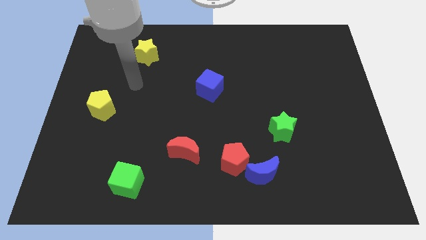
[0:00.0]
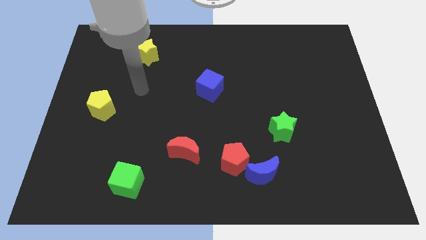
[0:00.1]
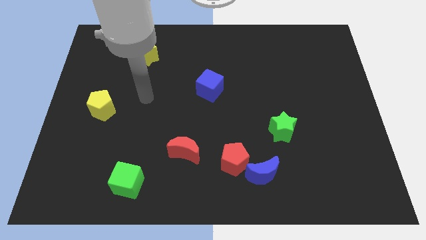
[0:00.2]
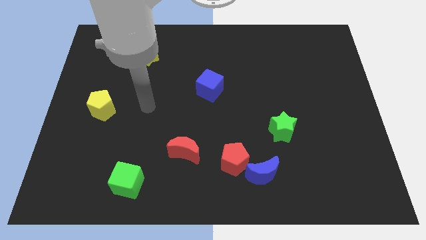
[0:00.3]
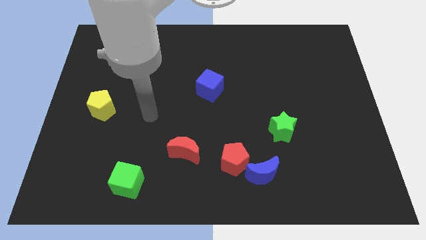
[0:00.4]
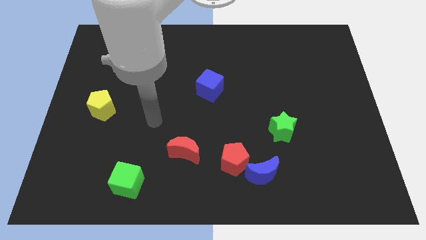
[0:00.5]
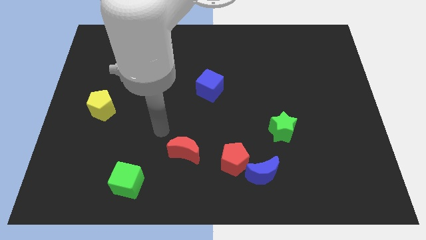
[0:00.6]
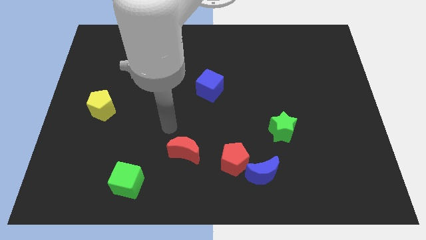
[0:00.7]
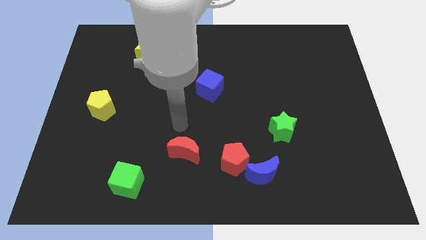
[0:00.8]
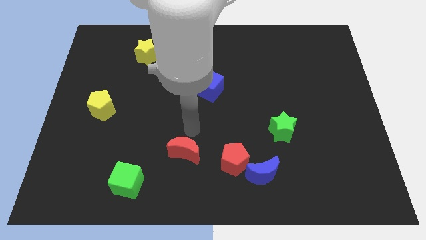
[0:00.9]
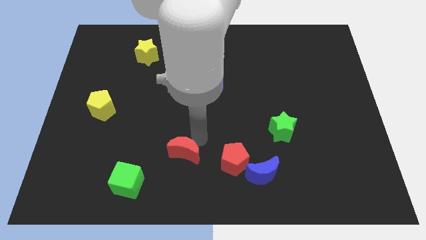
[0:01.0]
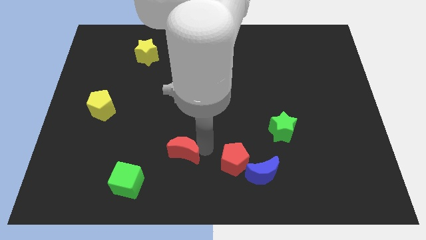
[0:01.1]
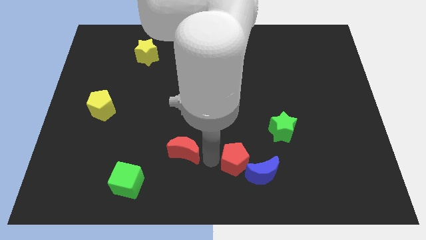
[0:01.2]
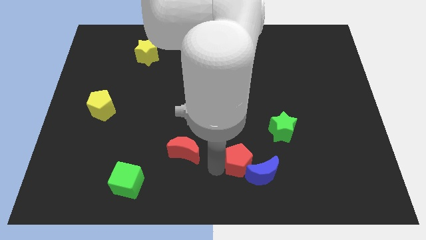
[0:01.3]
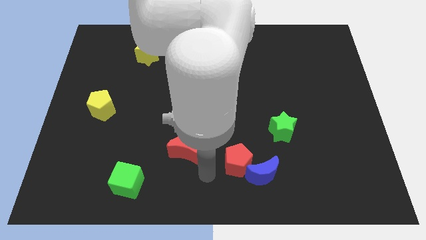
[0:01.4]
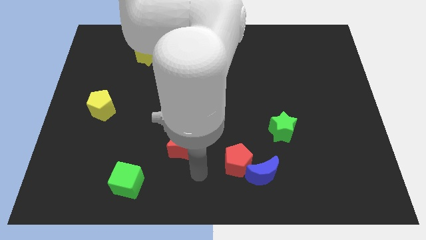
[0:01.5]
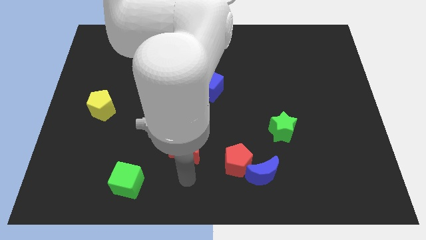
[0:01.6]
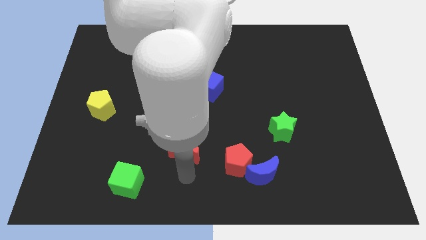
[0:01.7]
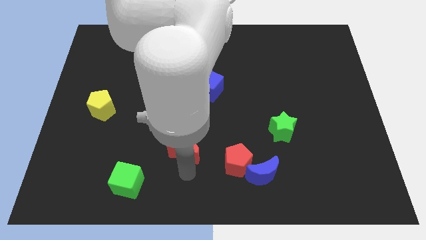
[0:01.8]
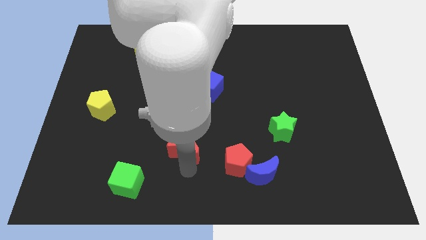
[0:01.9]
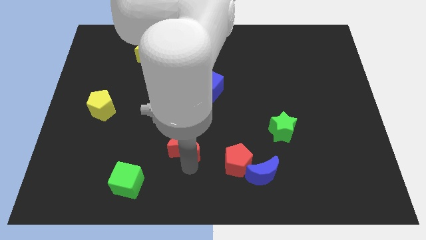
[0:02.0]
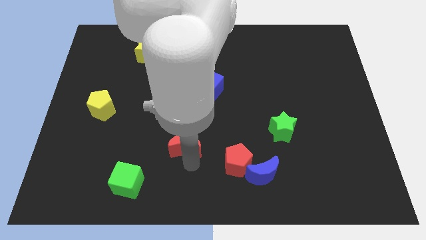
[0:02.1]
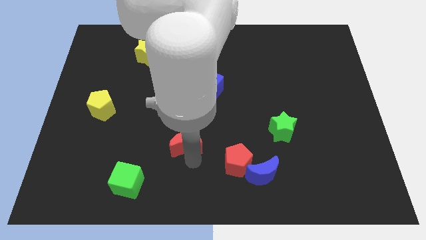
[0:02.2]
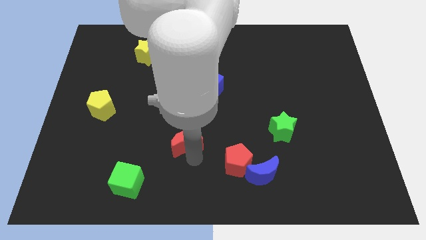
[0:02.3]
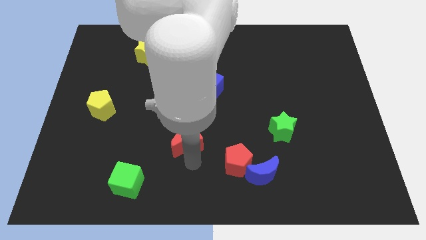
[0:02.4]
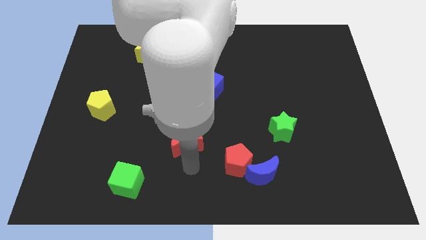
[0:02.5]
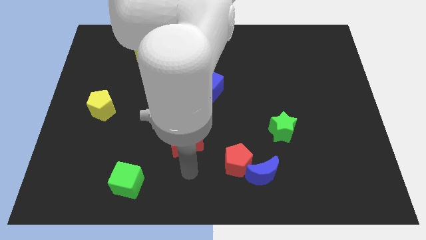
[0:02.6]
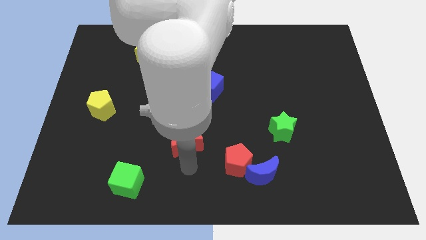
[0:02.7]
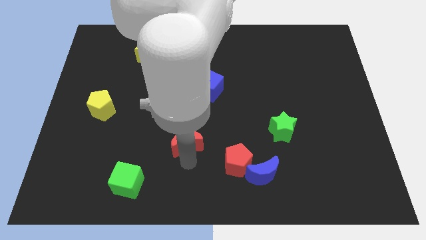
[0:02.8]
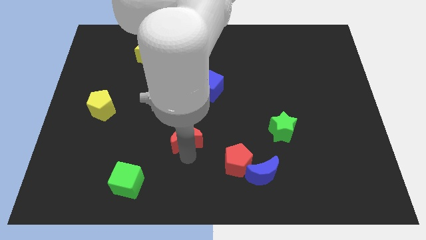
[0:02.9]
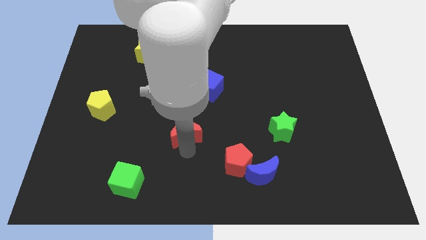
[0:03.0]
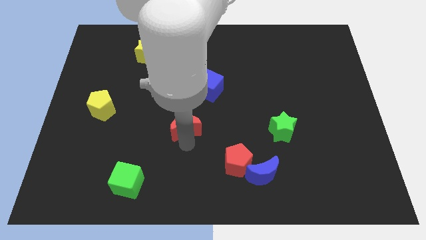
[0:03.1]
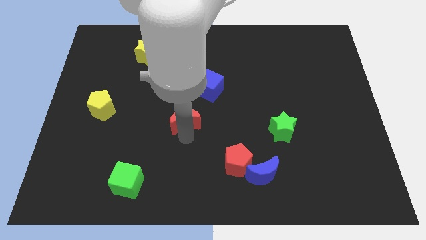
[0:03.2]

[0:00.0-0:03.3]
push the red moon a little up

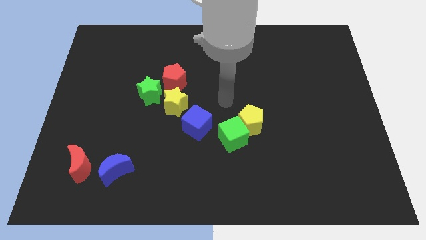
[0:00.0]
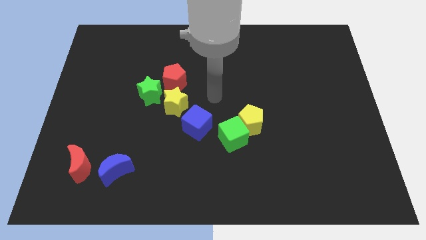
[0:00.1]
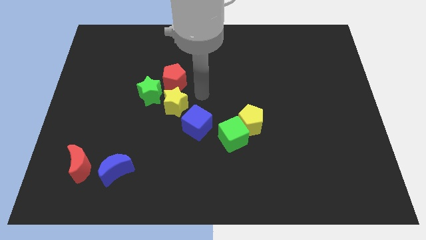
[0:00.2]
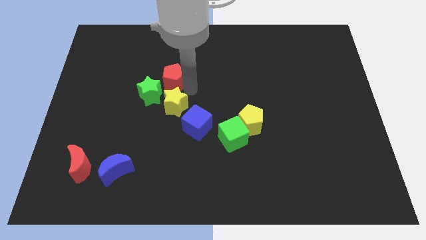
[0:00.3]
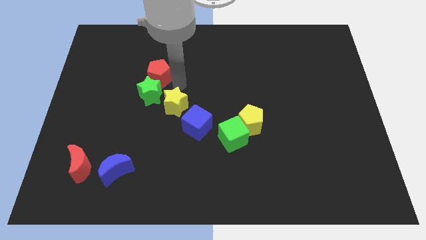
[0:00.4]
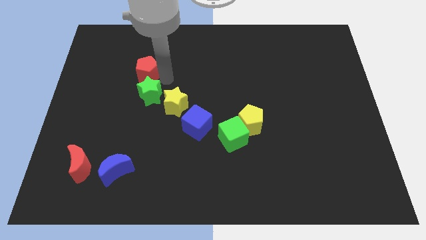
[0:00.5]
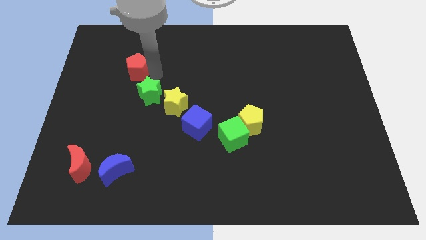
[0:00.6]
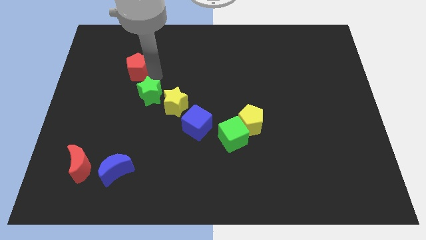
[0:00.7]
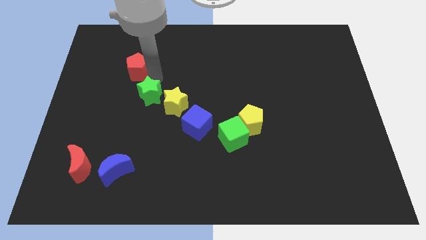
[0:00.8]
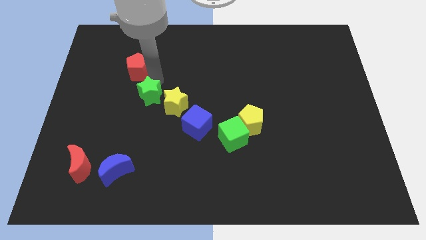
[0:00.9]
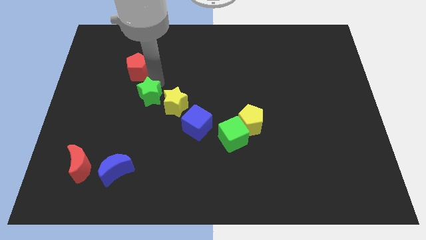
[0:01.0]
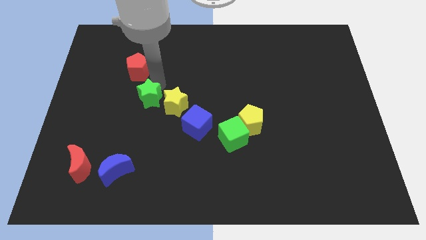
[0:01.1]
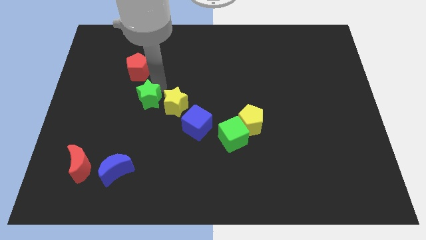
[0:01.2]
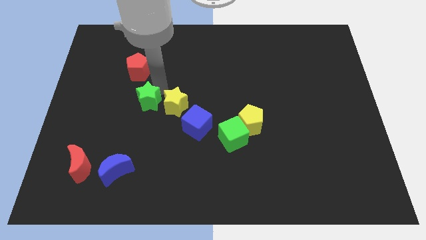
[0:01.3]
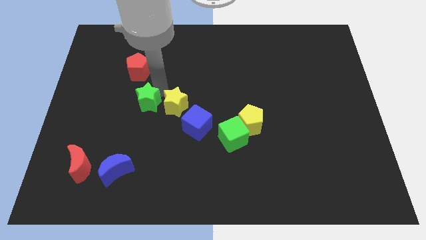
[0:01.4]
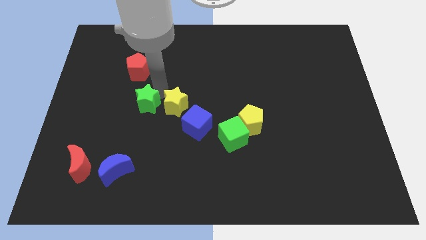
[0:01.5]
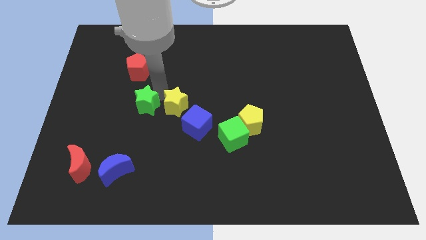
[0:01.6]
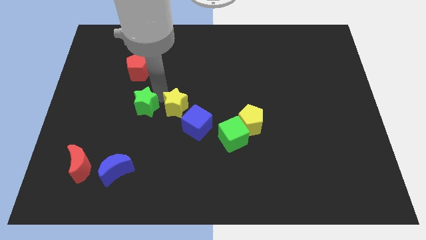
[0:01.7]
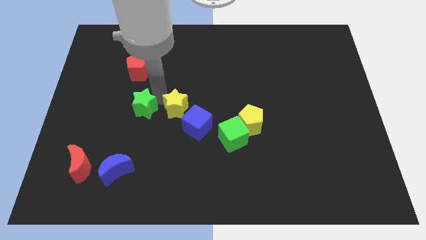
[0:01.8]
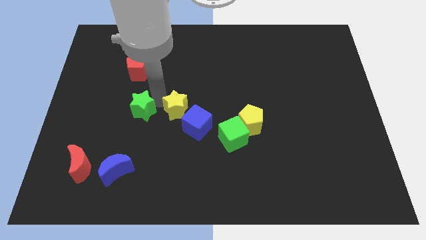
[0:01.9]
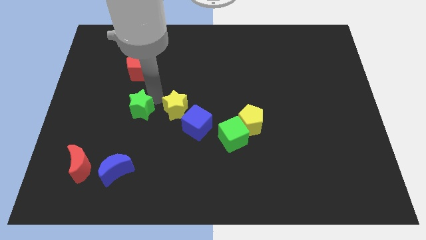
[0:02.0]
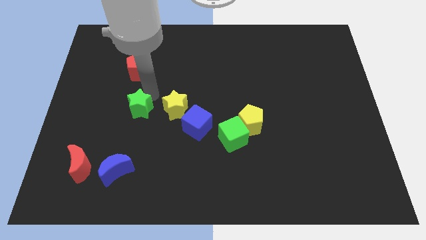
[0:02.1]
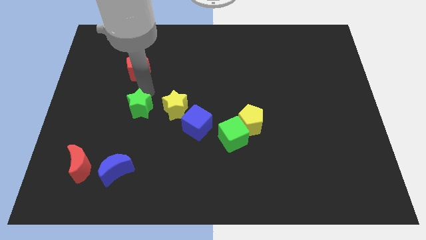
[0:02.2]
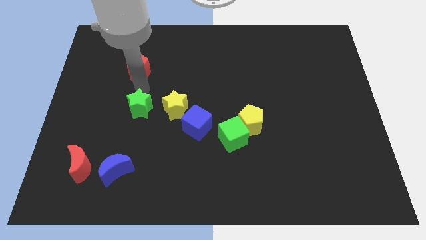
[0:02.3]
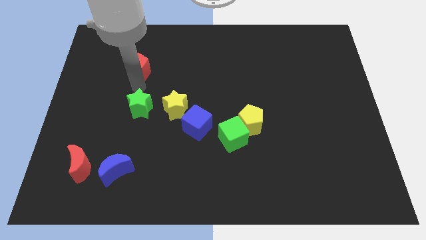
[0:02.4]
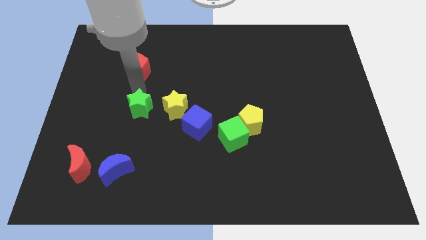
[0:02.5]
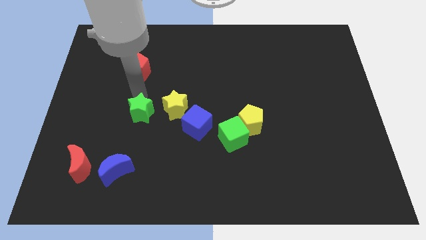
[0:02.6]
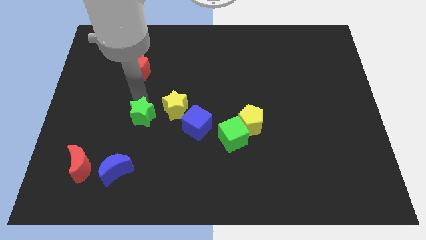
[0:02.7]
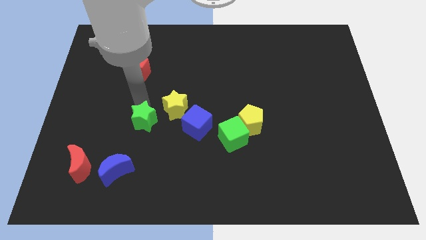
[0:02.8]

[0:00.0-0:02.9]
slightly push the green star downwards

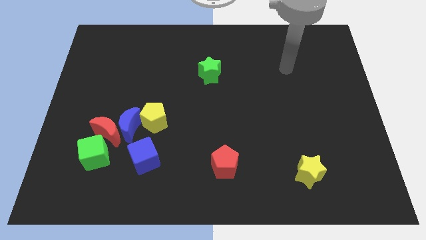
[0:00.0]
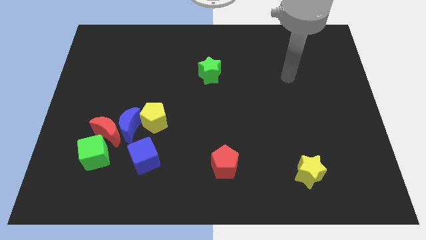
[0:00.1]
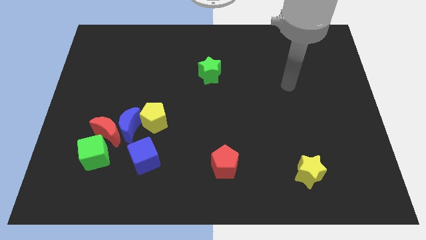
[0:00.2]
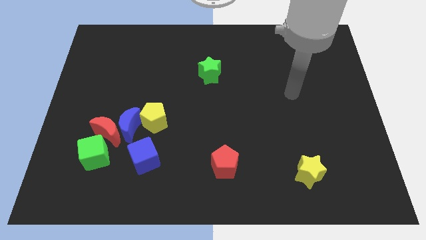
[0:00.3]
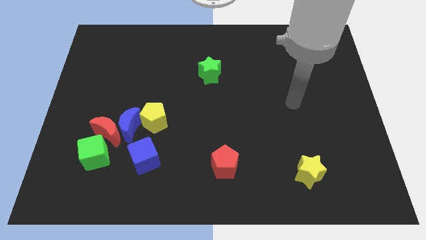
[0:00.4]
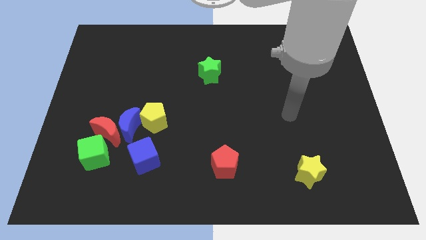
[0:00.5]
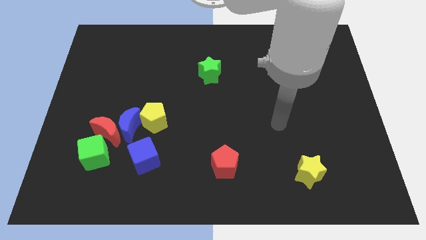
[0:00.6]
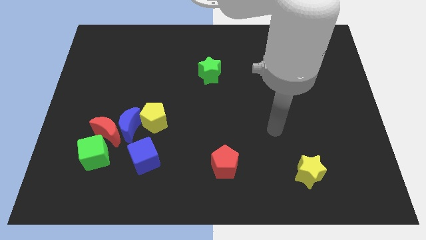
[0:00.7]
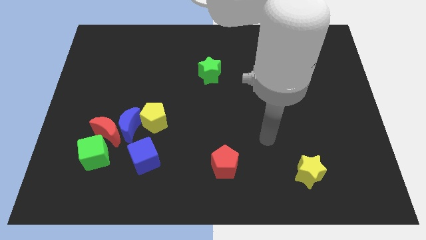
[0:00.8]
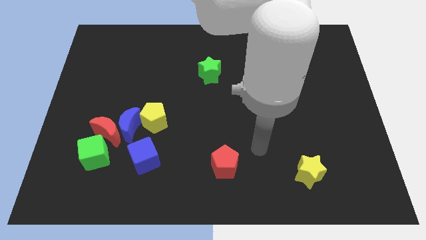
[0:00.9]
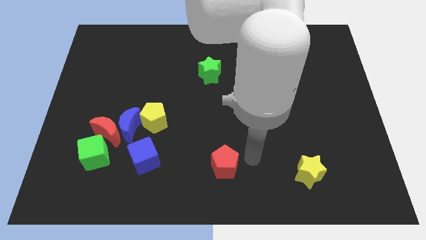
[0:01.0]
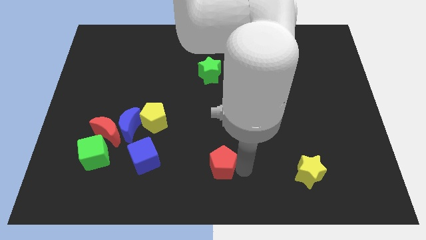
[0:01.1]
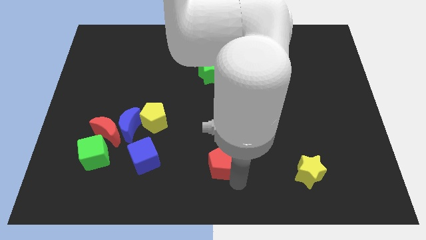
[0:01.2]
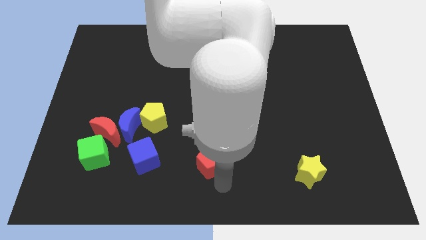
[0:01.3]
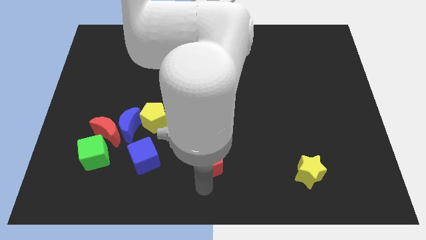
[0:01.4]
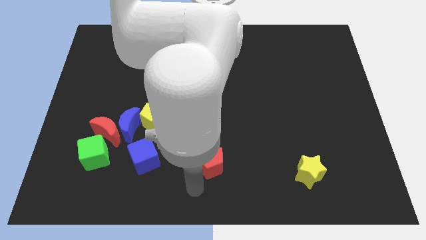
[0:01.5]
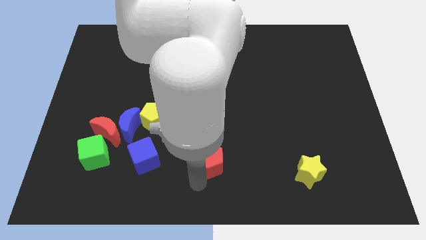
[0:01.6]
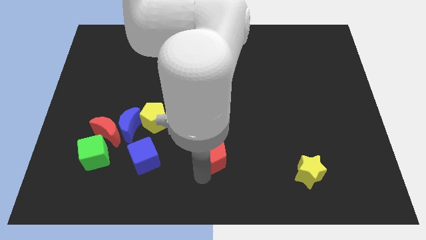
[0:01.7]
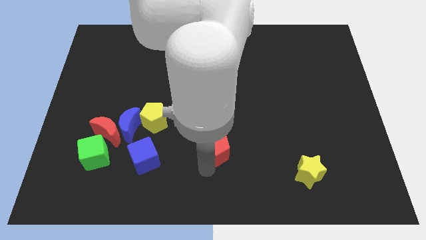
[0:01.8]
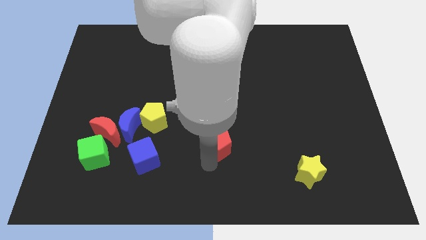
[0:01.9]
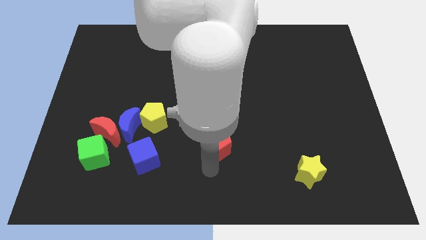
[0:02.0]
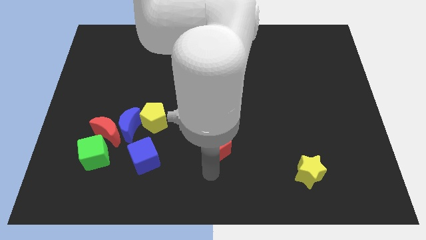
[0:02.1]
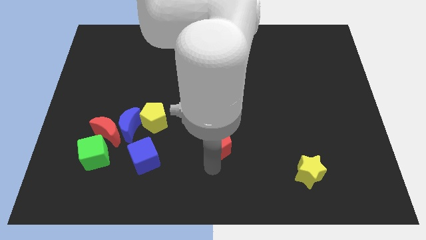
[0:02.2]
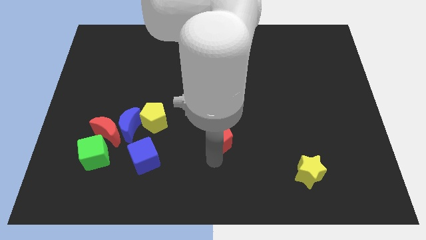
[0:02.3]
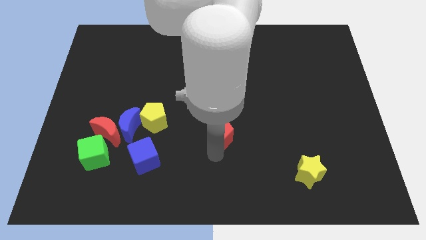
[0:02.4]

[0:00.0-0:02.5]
move the red pentagon a little bit up
